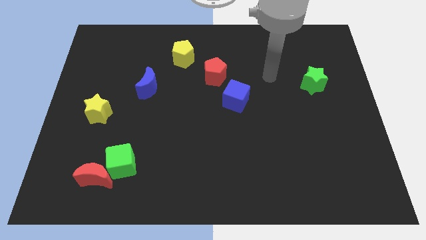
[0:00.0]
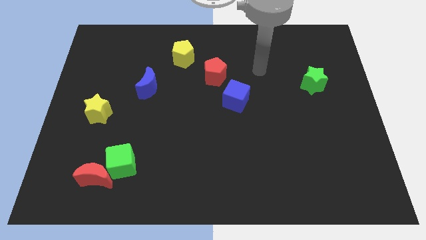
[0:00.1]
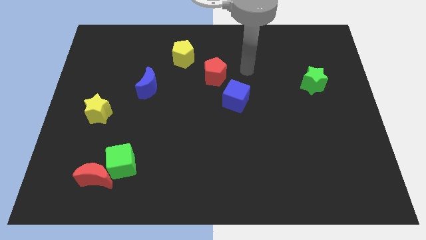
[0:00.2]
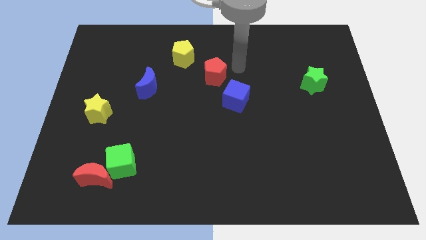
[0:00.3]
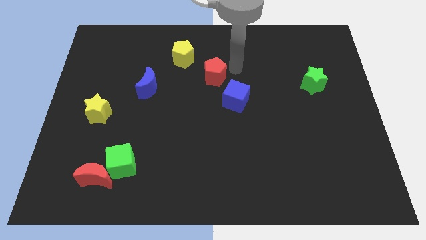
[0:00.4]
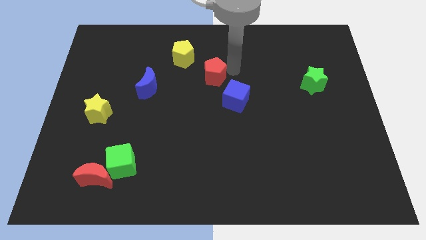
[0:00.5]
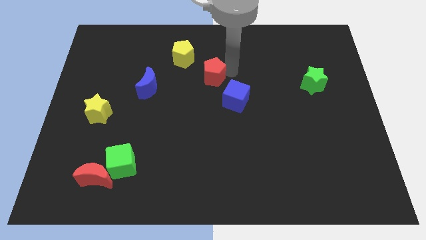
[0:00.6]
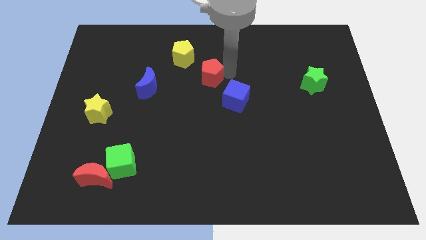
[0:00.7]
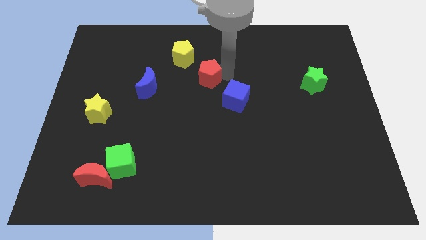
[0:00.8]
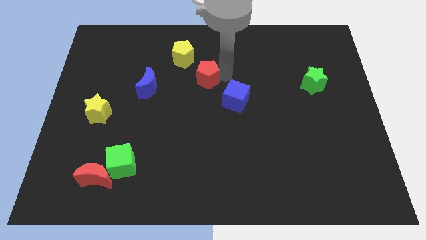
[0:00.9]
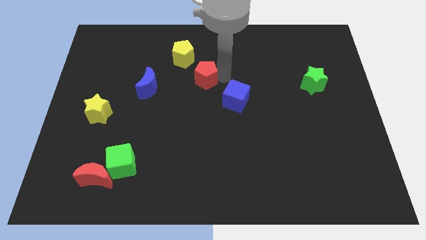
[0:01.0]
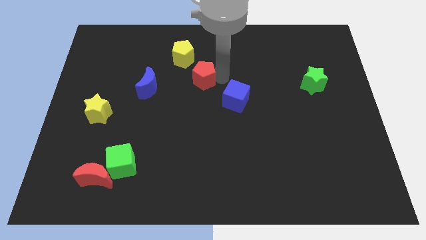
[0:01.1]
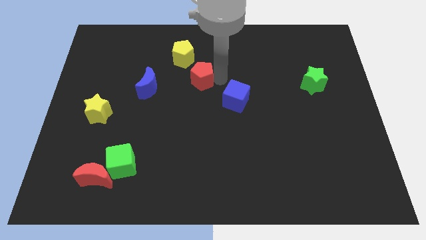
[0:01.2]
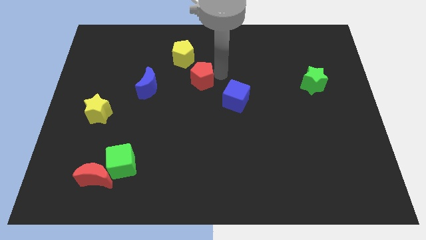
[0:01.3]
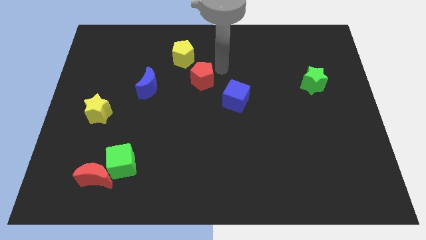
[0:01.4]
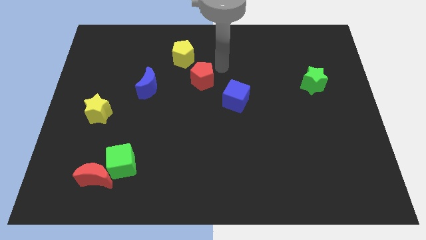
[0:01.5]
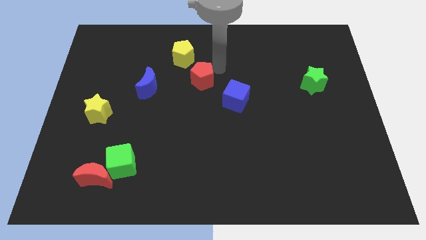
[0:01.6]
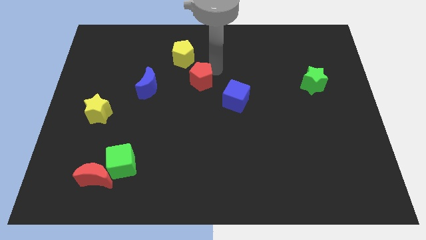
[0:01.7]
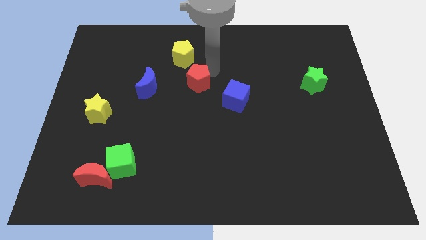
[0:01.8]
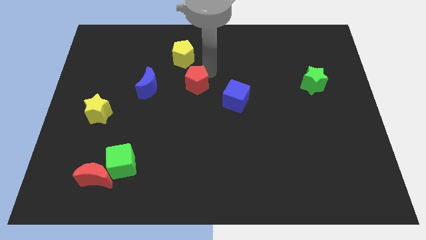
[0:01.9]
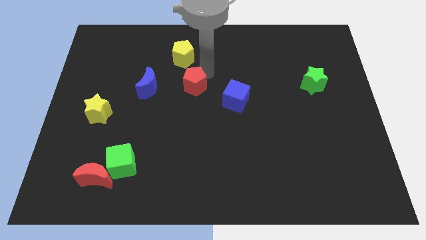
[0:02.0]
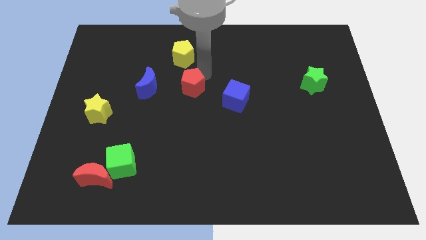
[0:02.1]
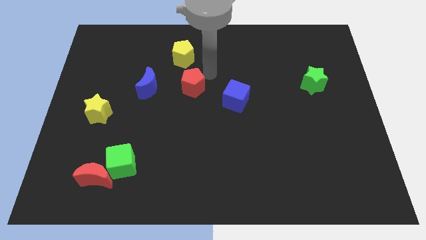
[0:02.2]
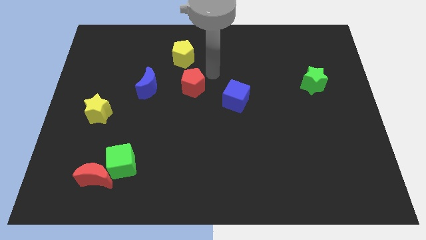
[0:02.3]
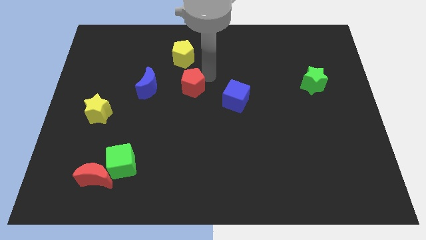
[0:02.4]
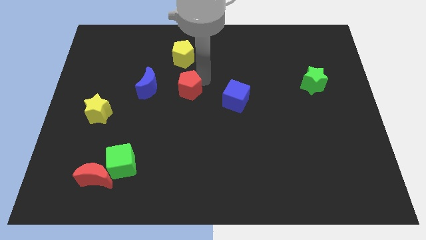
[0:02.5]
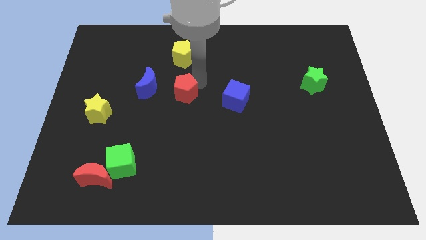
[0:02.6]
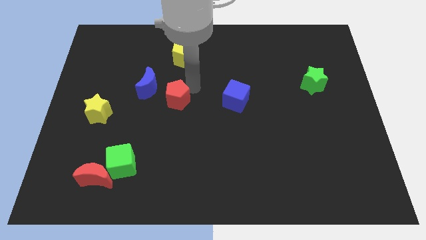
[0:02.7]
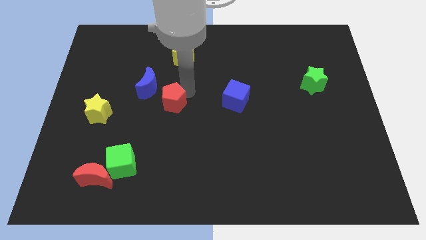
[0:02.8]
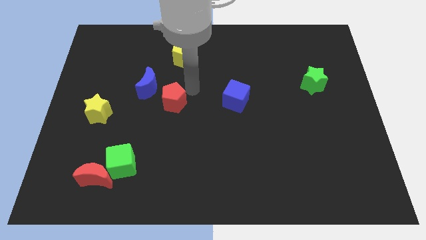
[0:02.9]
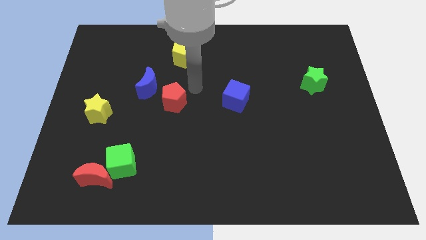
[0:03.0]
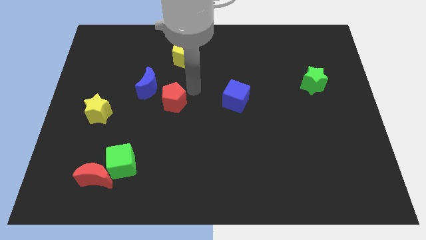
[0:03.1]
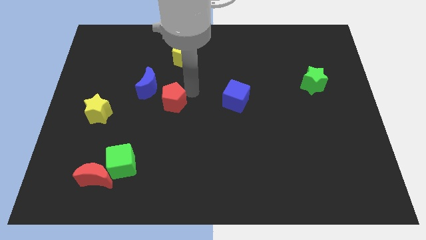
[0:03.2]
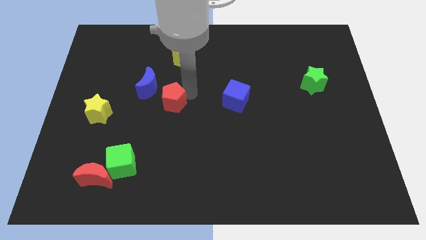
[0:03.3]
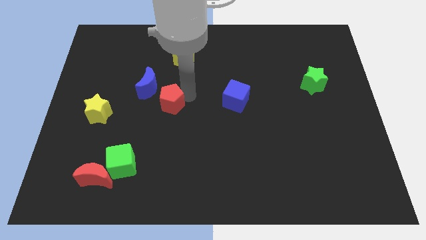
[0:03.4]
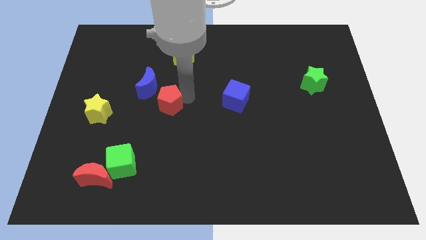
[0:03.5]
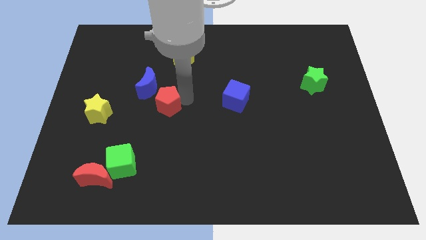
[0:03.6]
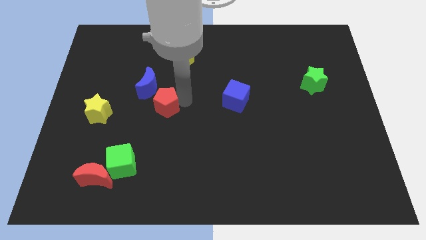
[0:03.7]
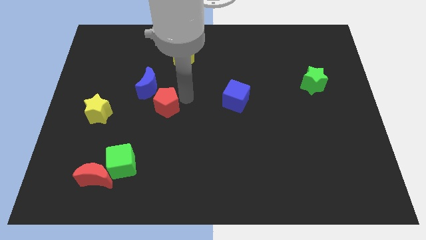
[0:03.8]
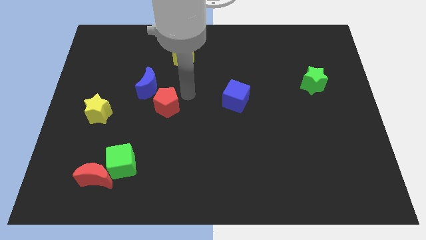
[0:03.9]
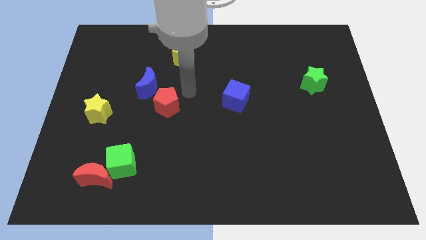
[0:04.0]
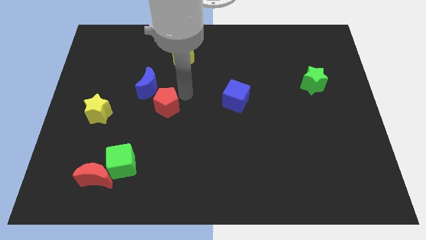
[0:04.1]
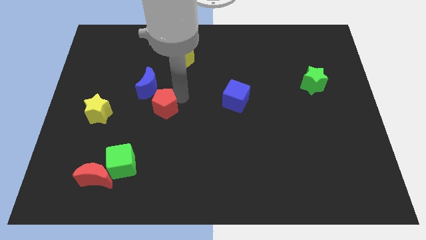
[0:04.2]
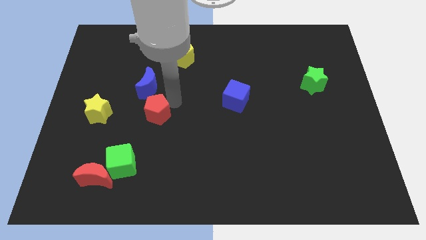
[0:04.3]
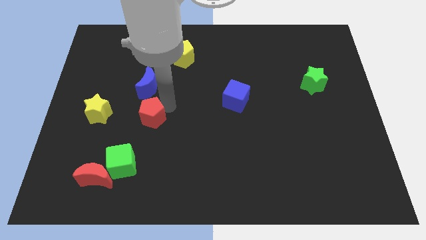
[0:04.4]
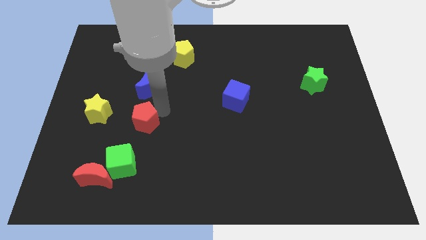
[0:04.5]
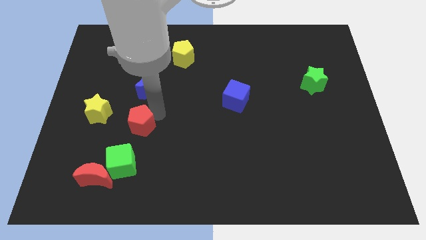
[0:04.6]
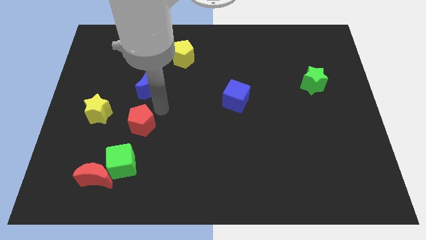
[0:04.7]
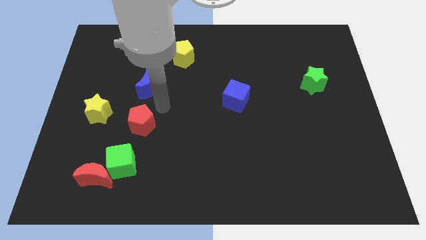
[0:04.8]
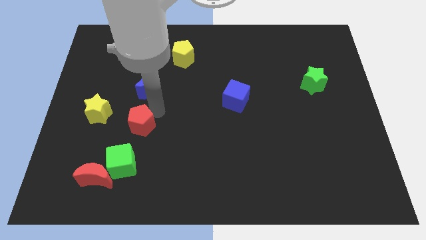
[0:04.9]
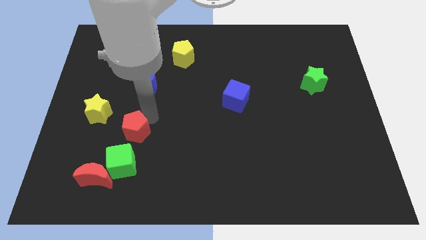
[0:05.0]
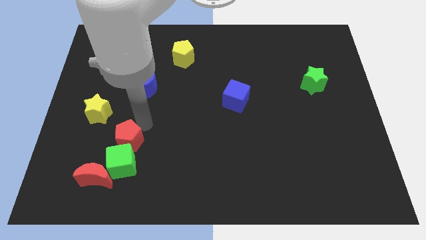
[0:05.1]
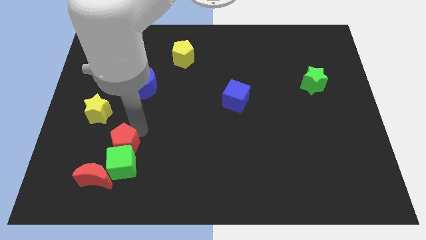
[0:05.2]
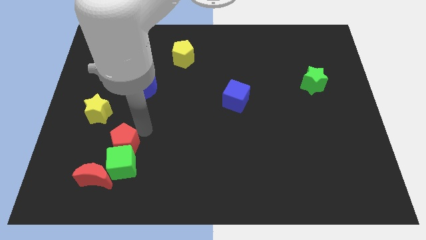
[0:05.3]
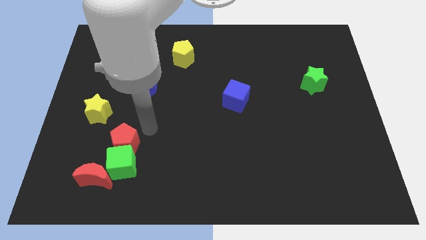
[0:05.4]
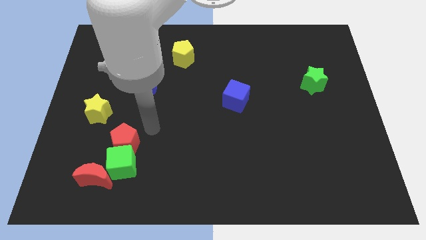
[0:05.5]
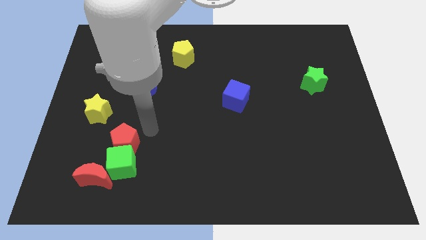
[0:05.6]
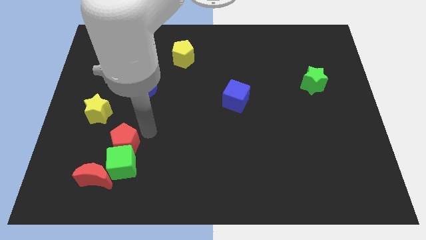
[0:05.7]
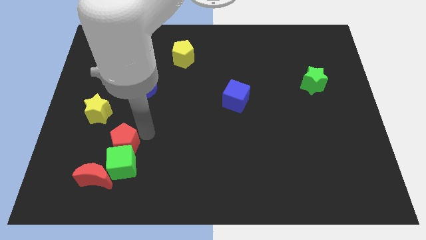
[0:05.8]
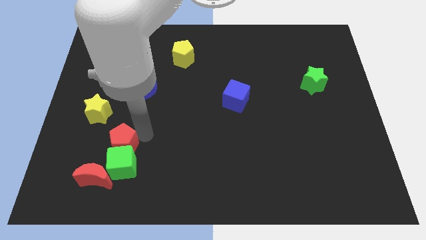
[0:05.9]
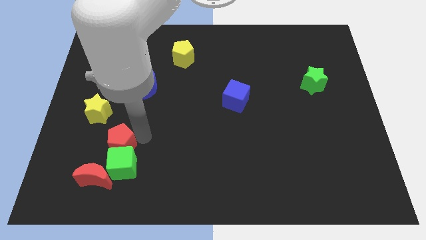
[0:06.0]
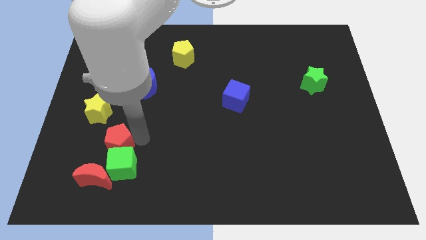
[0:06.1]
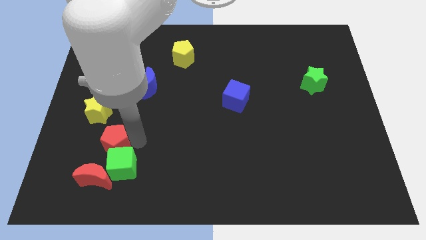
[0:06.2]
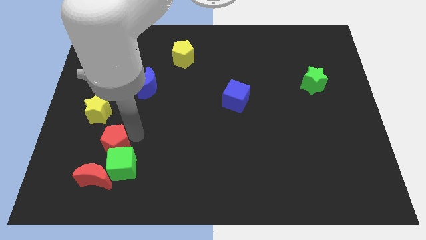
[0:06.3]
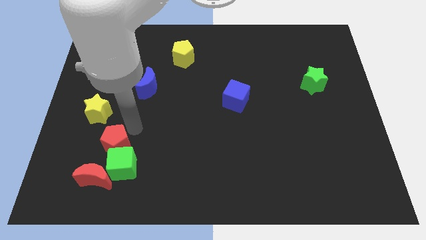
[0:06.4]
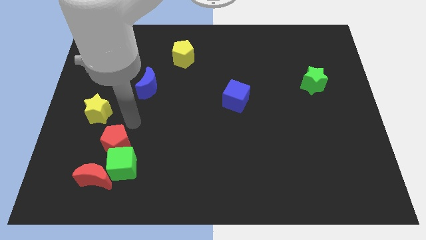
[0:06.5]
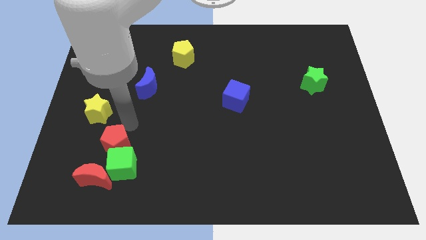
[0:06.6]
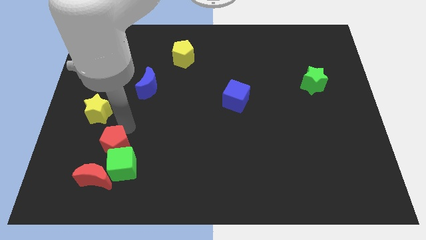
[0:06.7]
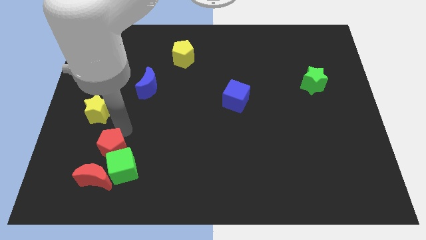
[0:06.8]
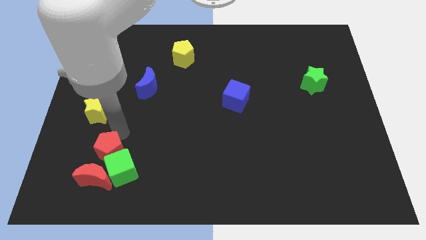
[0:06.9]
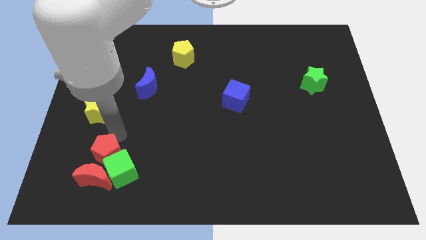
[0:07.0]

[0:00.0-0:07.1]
push the red pentagon close to the red moon

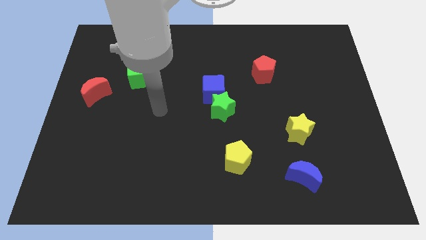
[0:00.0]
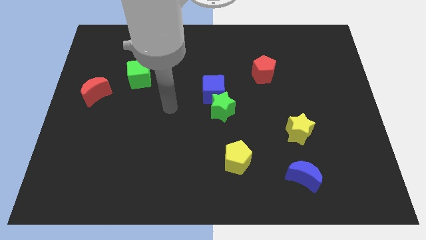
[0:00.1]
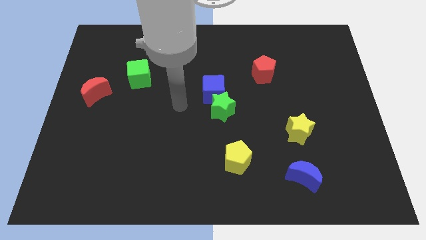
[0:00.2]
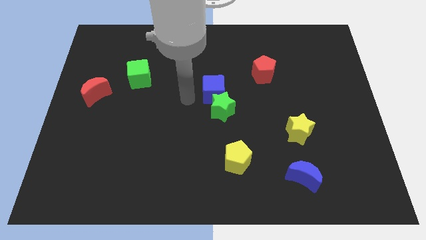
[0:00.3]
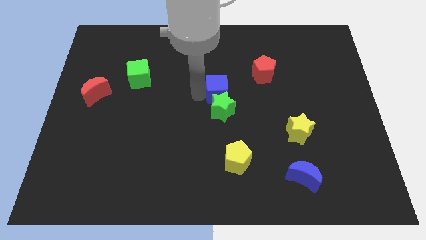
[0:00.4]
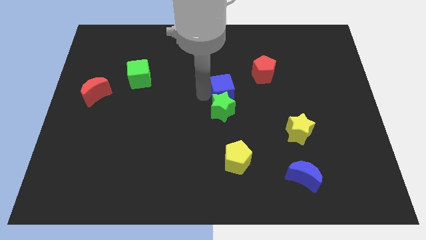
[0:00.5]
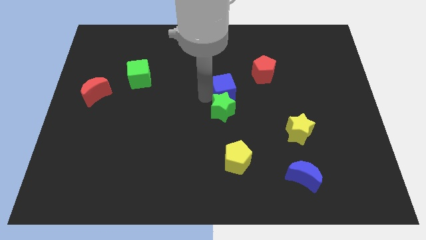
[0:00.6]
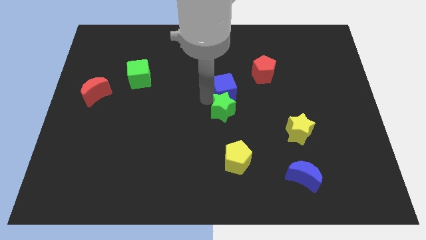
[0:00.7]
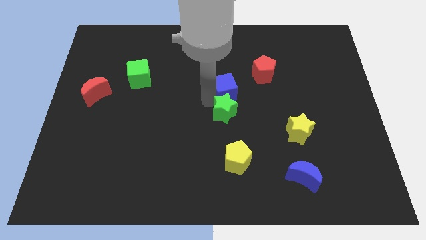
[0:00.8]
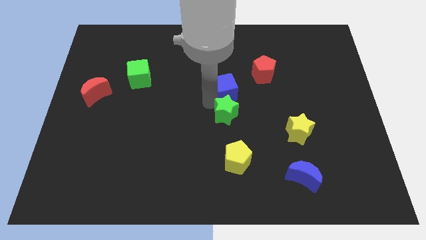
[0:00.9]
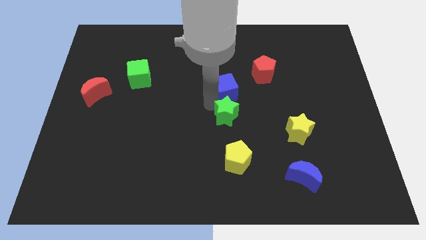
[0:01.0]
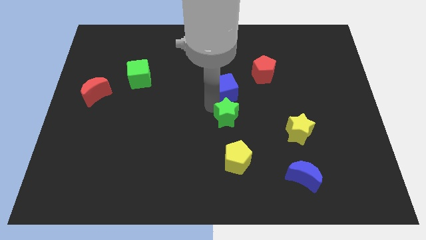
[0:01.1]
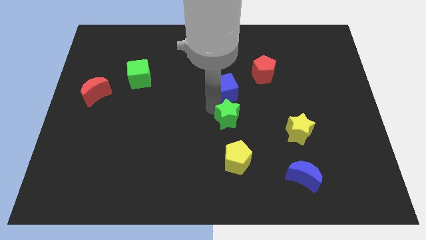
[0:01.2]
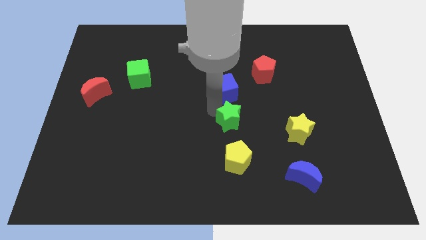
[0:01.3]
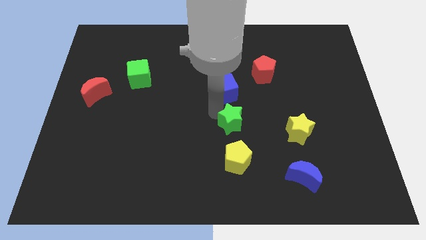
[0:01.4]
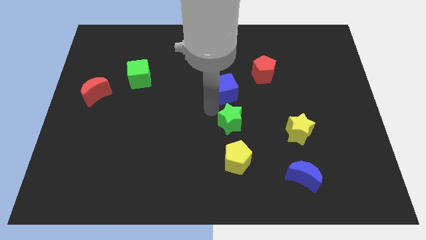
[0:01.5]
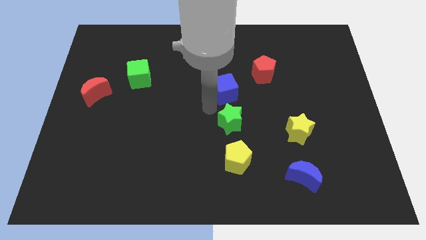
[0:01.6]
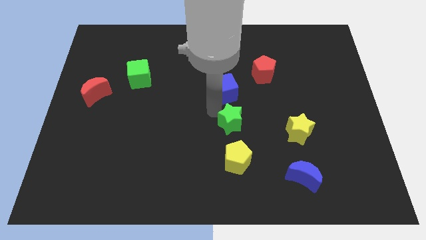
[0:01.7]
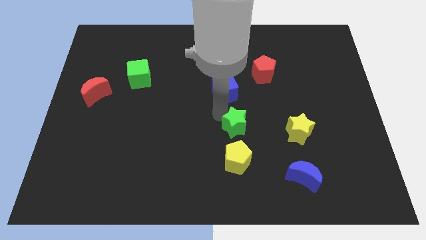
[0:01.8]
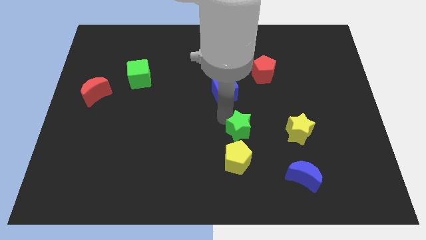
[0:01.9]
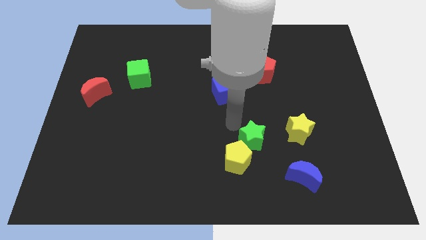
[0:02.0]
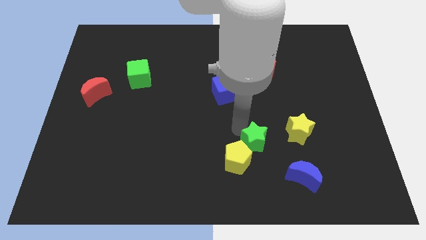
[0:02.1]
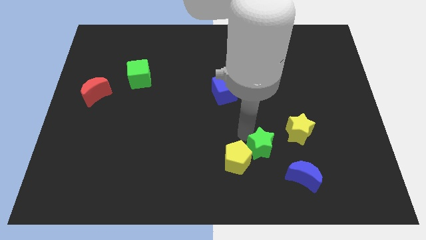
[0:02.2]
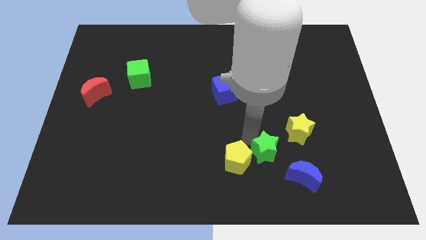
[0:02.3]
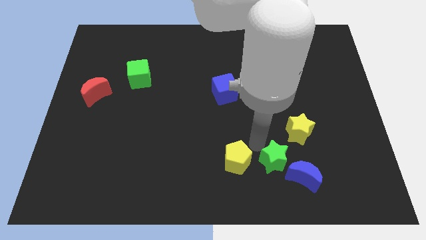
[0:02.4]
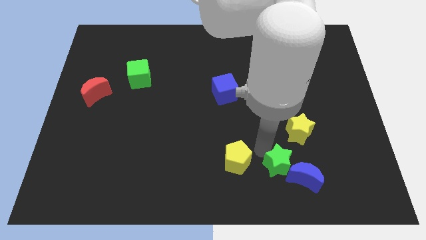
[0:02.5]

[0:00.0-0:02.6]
put the green star next to the blue moon
